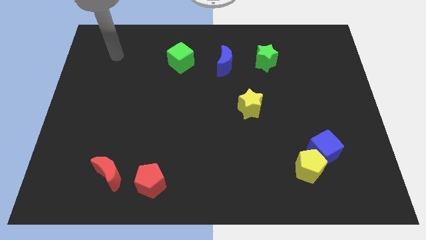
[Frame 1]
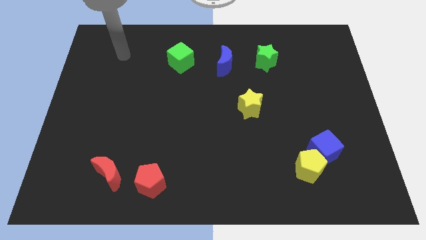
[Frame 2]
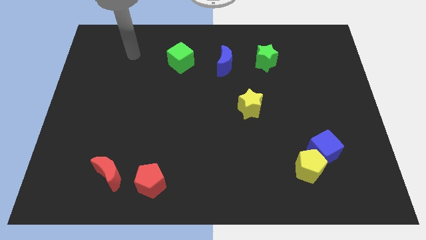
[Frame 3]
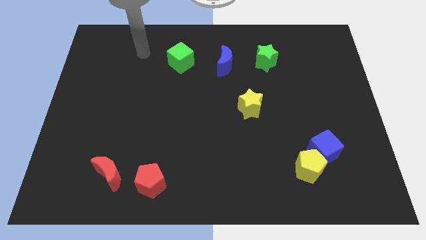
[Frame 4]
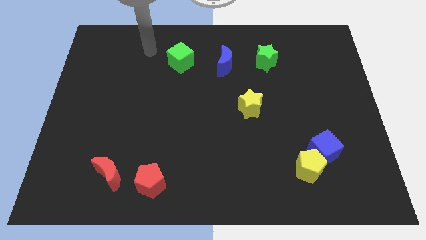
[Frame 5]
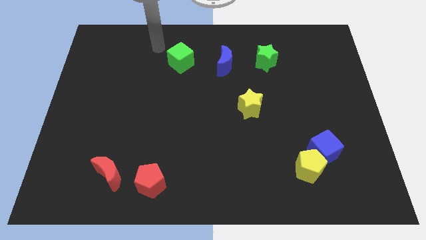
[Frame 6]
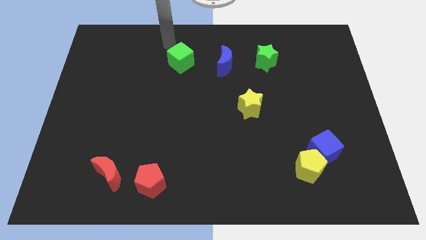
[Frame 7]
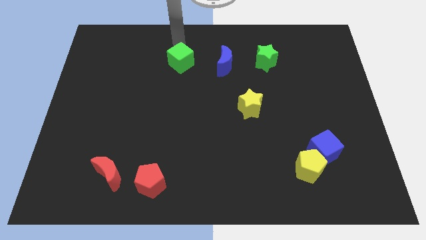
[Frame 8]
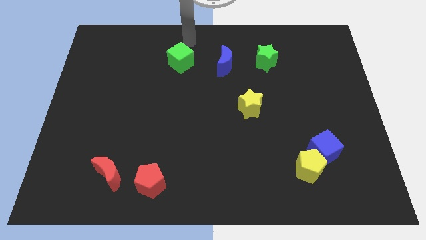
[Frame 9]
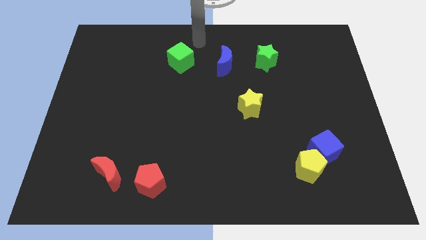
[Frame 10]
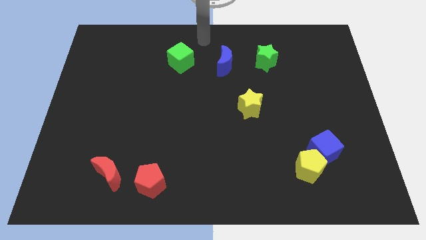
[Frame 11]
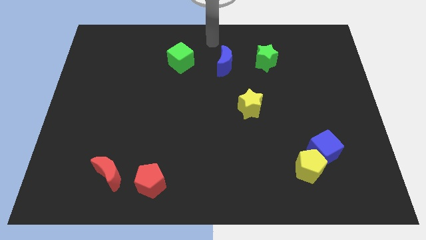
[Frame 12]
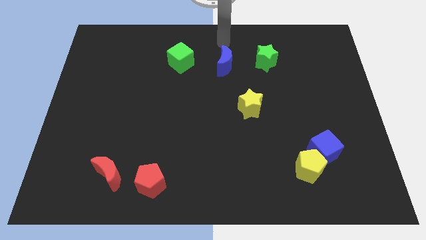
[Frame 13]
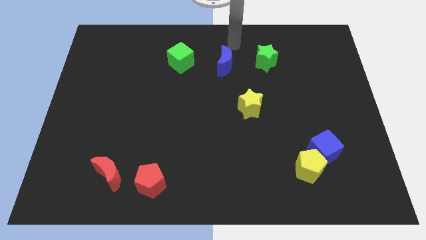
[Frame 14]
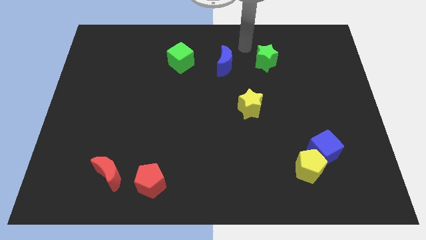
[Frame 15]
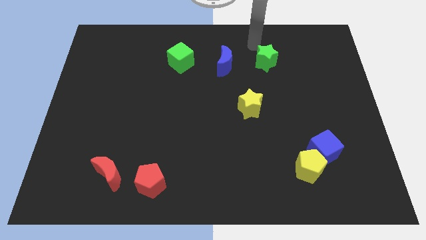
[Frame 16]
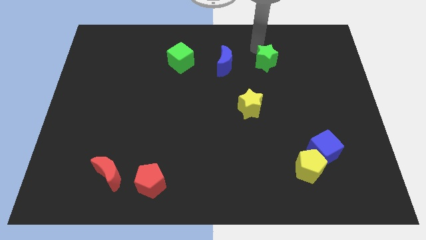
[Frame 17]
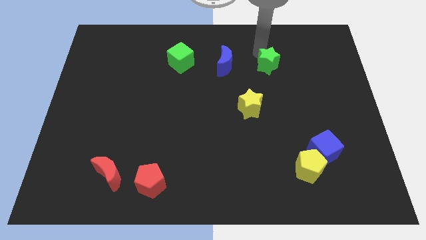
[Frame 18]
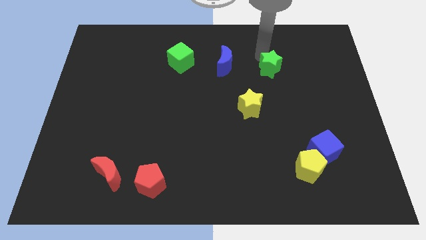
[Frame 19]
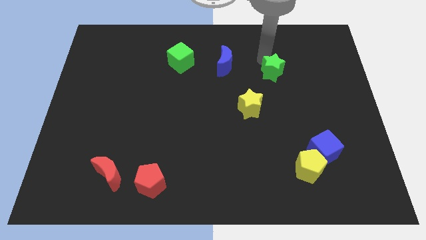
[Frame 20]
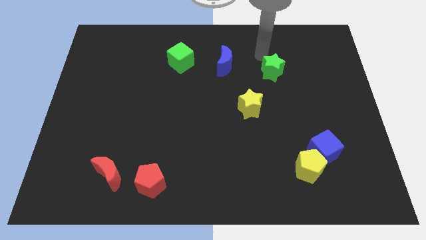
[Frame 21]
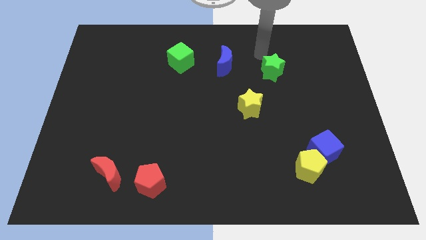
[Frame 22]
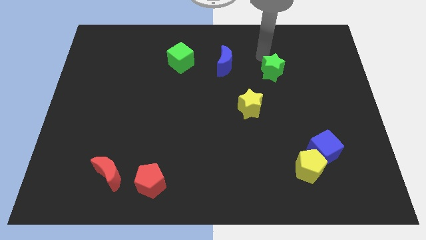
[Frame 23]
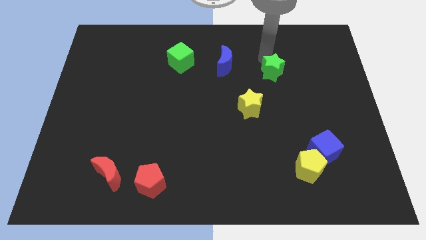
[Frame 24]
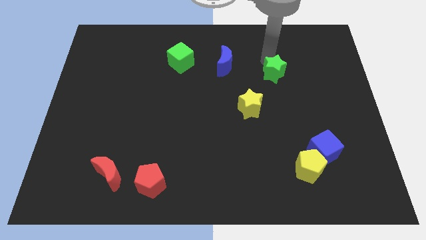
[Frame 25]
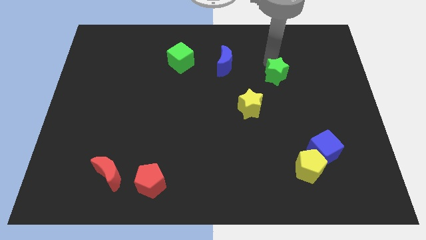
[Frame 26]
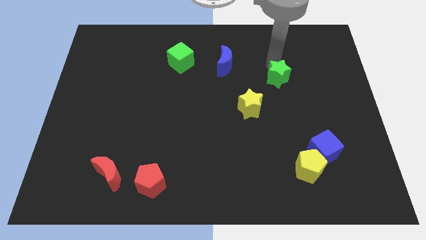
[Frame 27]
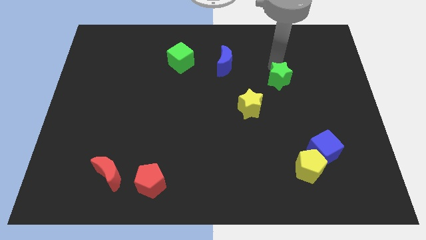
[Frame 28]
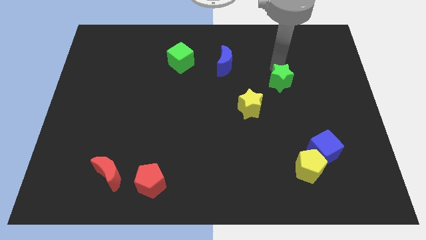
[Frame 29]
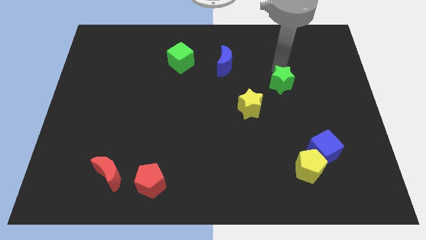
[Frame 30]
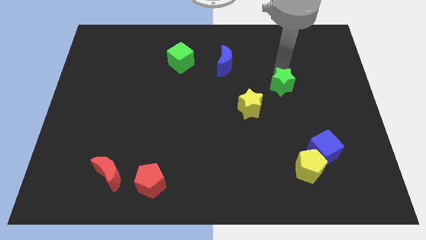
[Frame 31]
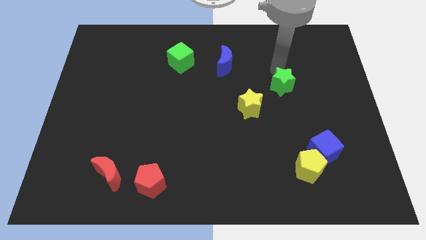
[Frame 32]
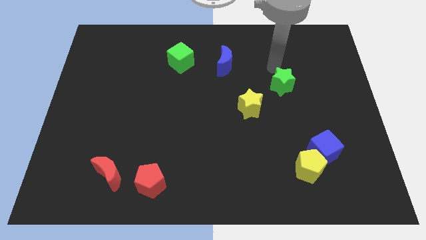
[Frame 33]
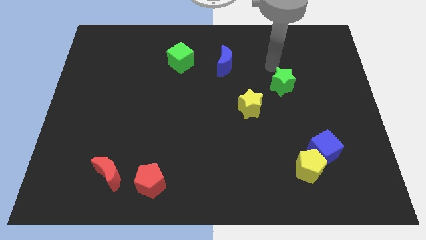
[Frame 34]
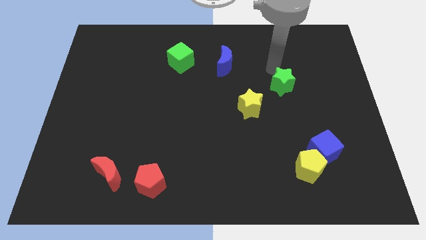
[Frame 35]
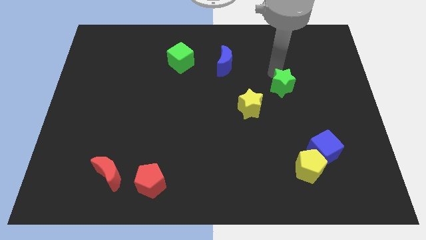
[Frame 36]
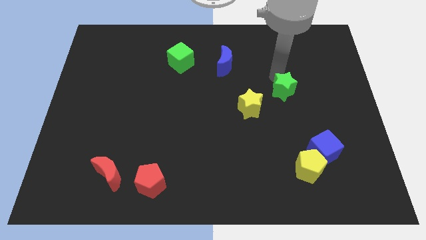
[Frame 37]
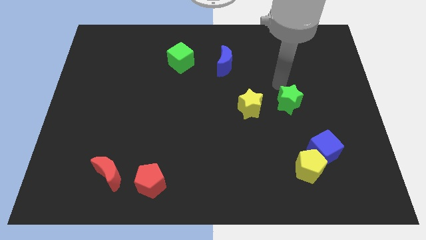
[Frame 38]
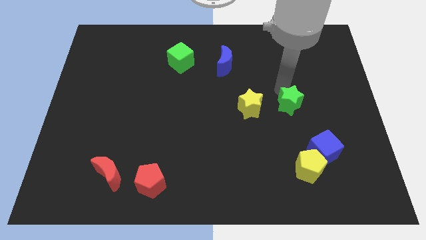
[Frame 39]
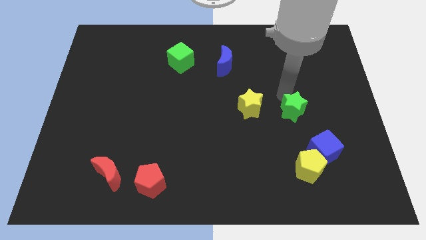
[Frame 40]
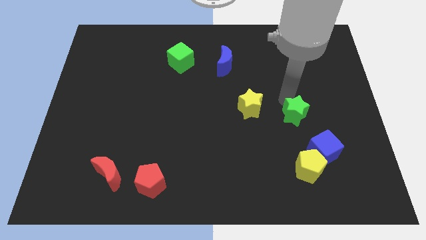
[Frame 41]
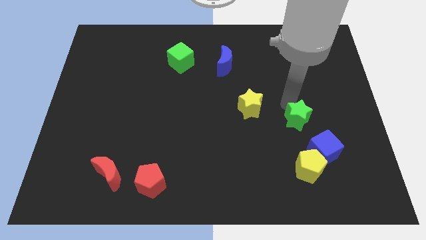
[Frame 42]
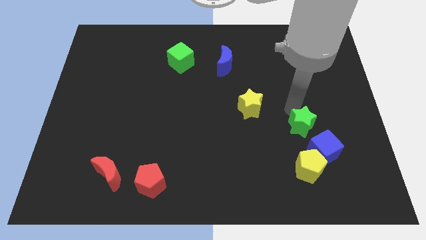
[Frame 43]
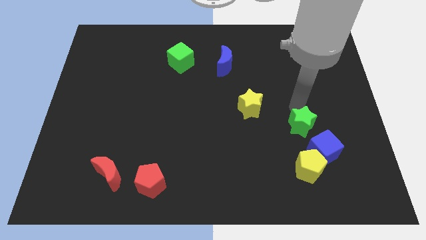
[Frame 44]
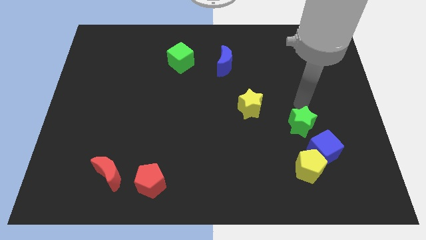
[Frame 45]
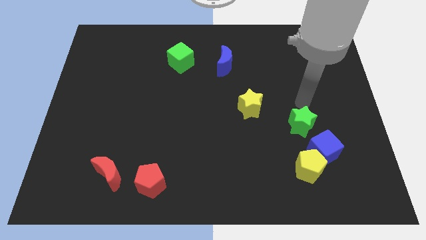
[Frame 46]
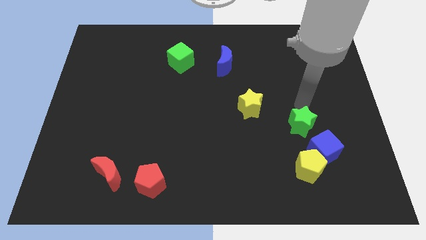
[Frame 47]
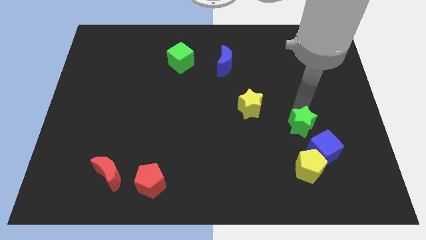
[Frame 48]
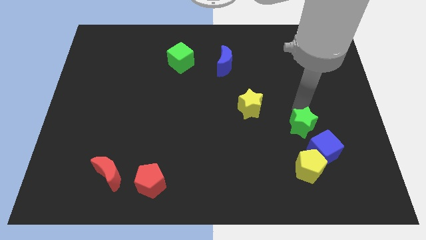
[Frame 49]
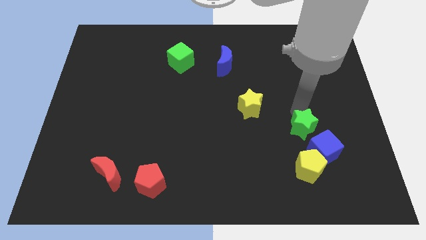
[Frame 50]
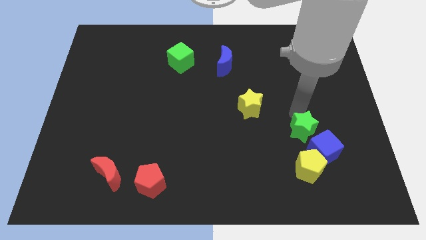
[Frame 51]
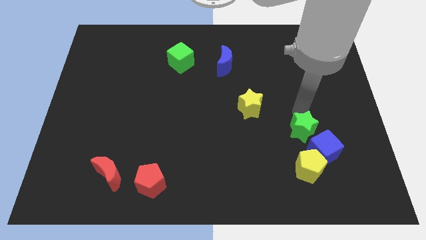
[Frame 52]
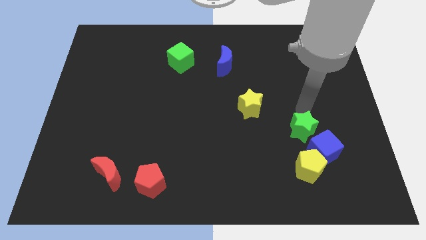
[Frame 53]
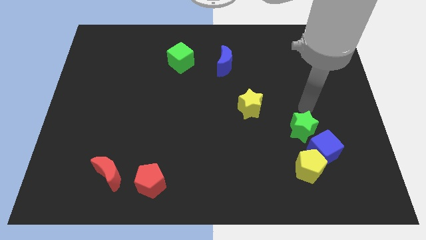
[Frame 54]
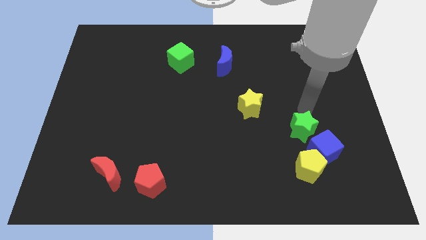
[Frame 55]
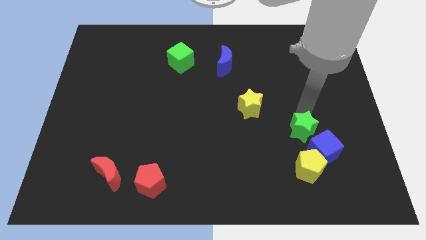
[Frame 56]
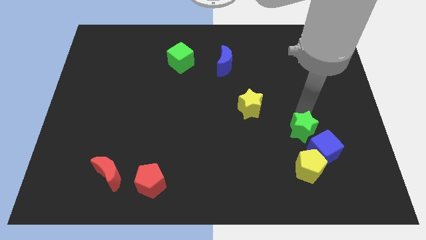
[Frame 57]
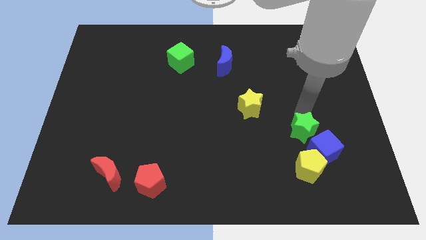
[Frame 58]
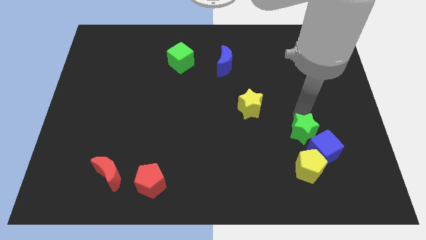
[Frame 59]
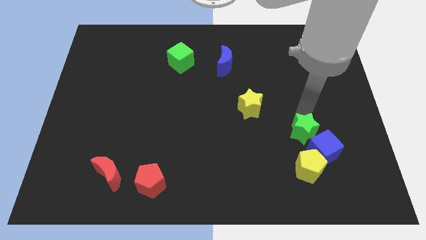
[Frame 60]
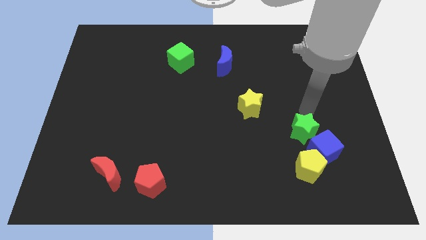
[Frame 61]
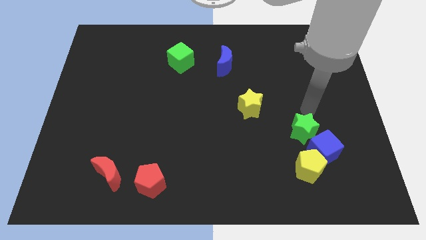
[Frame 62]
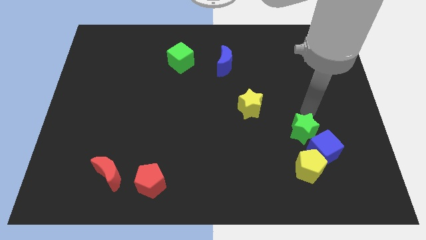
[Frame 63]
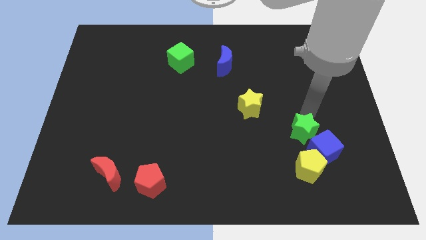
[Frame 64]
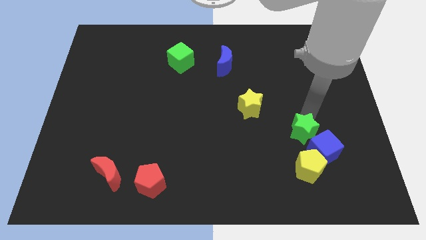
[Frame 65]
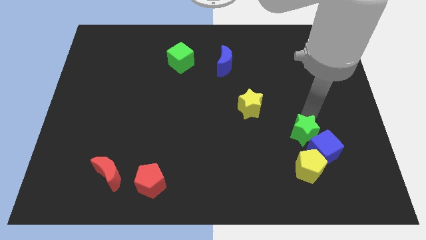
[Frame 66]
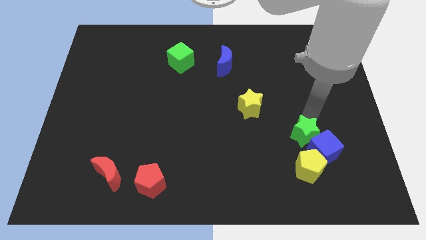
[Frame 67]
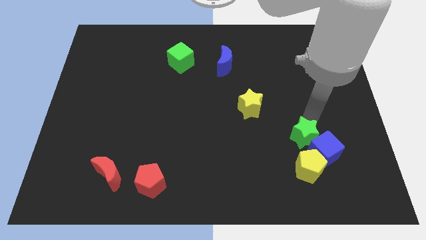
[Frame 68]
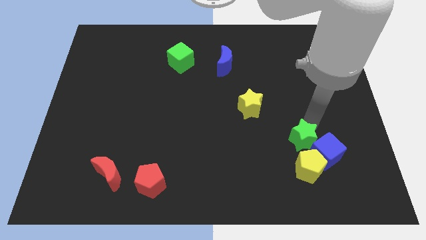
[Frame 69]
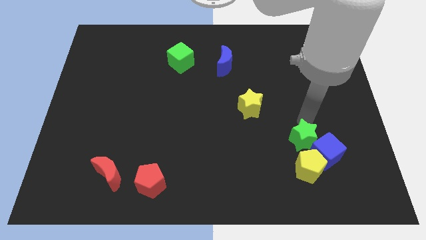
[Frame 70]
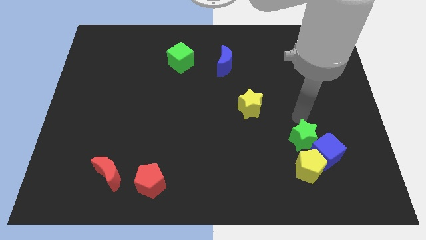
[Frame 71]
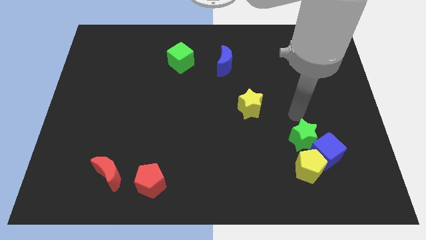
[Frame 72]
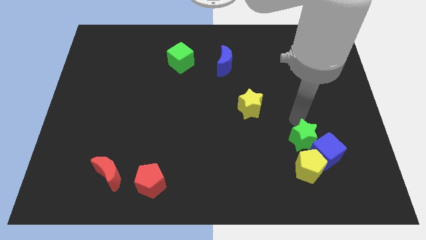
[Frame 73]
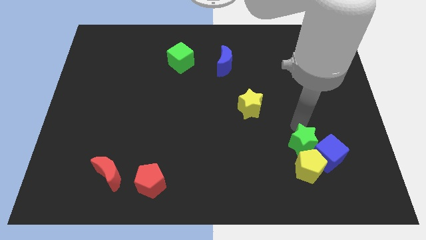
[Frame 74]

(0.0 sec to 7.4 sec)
push the green star close to the yellow pentagon
